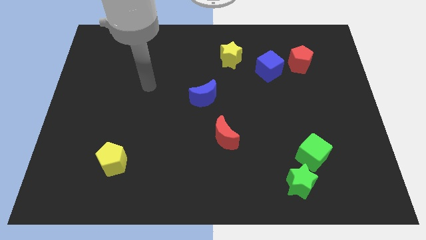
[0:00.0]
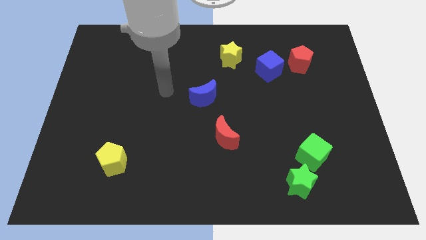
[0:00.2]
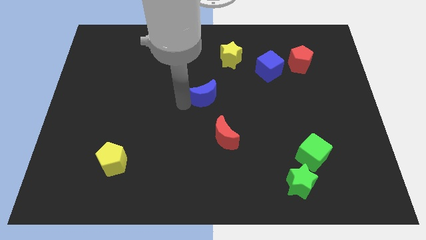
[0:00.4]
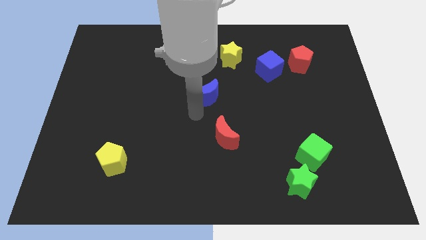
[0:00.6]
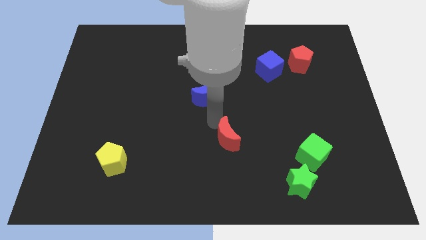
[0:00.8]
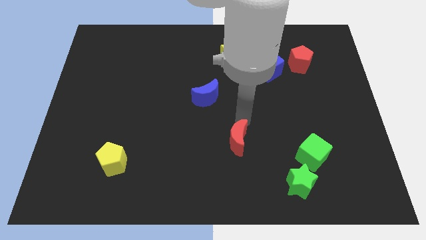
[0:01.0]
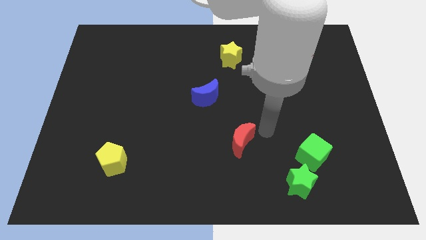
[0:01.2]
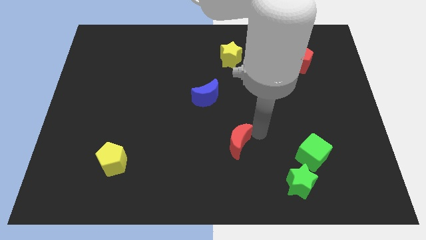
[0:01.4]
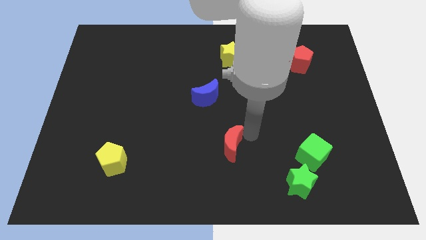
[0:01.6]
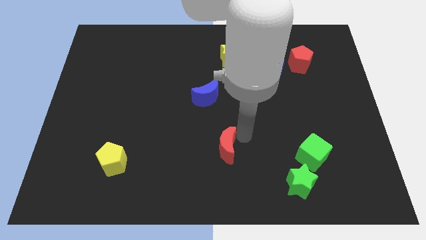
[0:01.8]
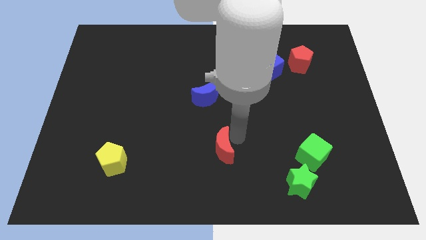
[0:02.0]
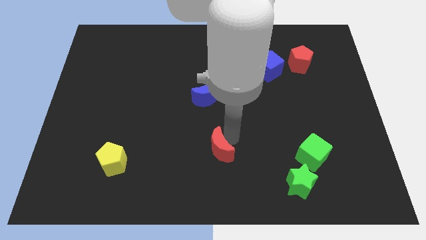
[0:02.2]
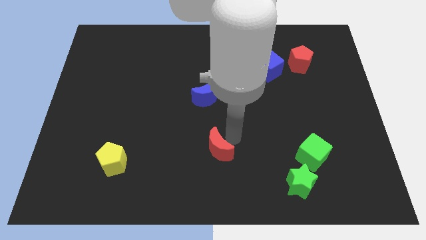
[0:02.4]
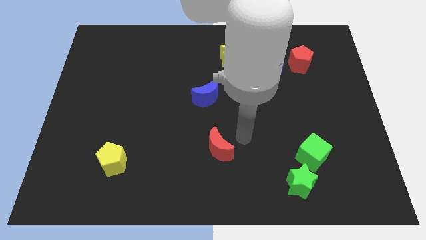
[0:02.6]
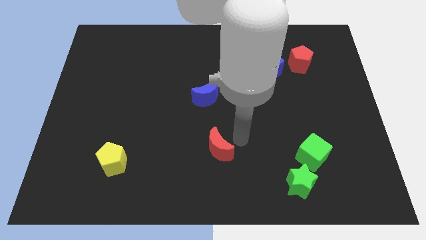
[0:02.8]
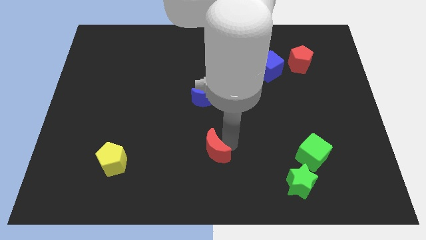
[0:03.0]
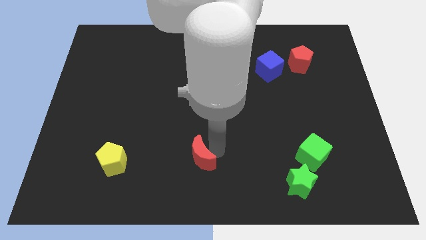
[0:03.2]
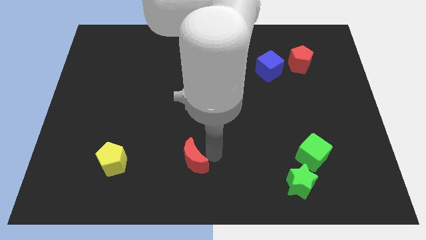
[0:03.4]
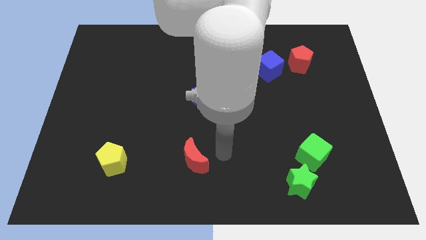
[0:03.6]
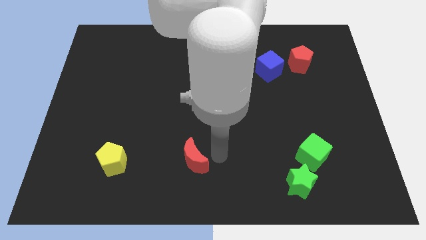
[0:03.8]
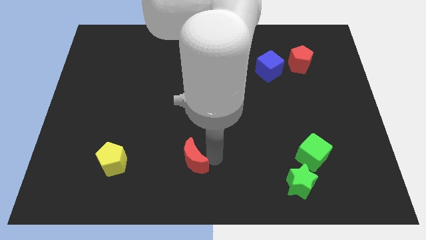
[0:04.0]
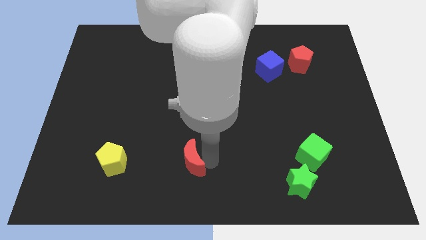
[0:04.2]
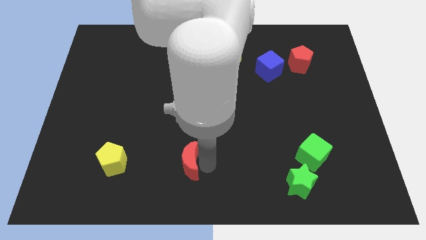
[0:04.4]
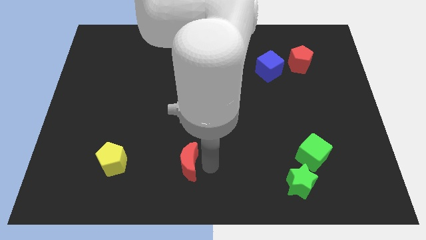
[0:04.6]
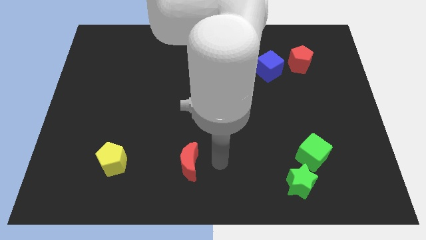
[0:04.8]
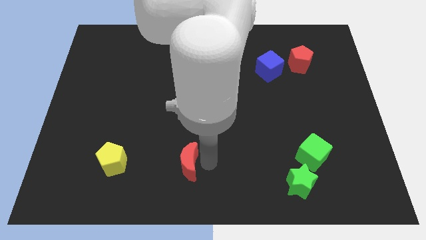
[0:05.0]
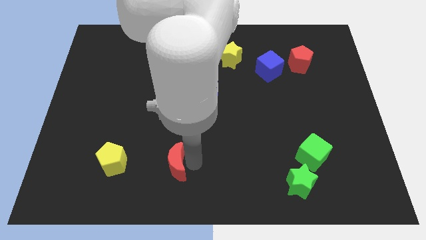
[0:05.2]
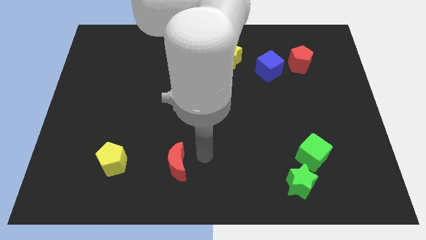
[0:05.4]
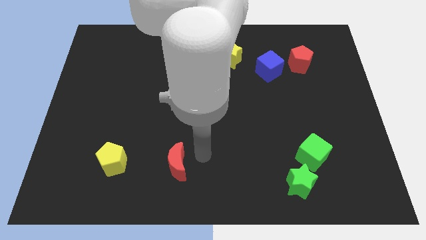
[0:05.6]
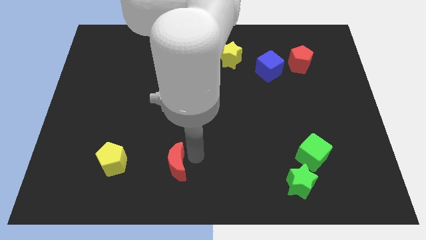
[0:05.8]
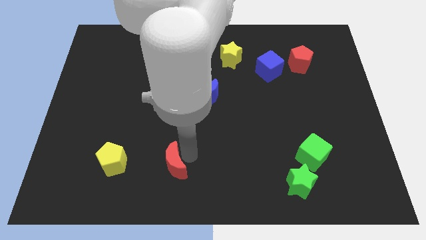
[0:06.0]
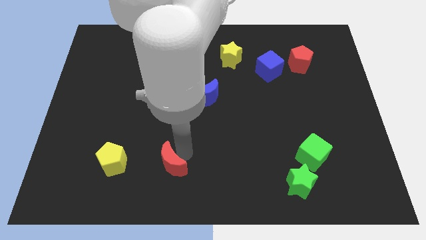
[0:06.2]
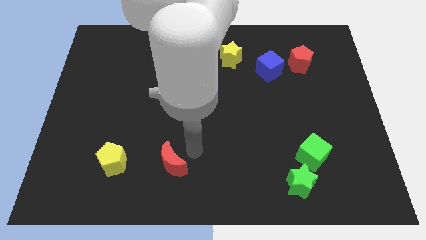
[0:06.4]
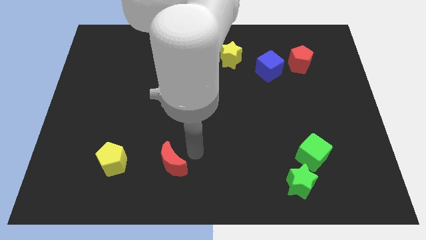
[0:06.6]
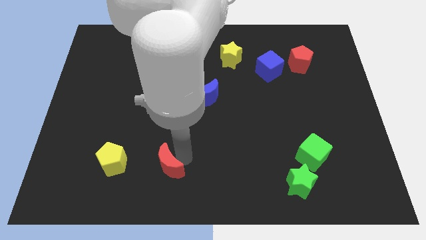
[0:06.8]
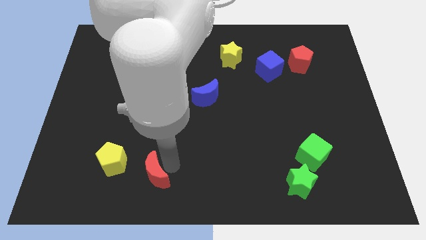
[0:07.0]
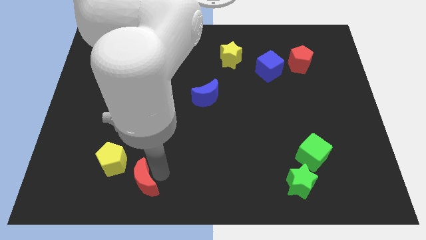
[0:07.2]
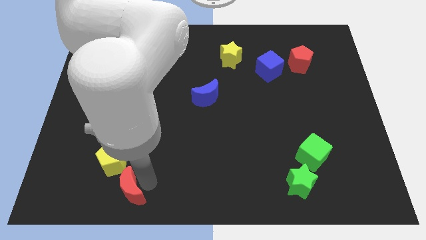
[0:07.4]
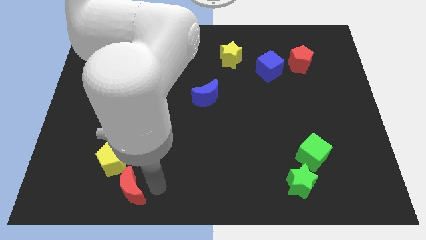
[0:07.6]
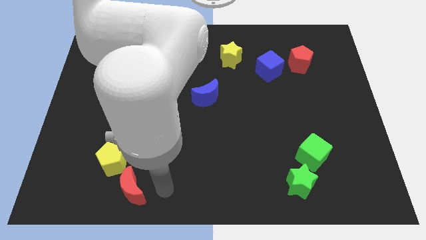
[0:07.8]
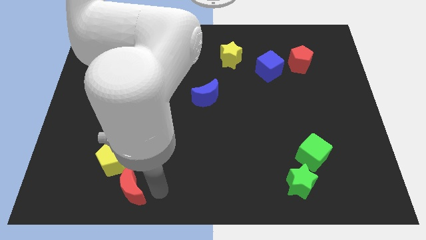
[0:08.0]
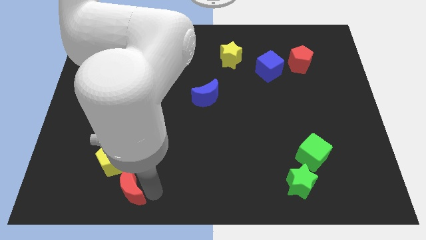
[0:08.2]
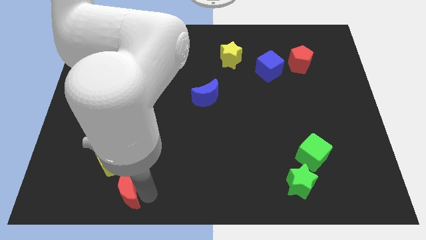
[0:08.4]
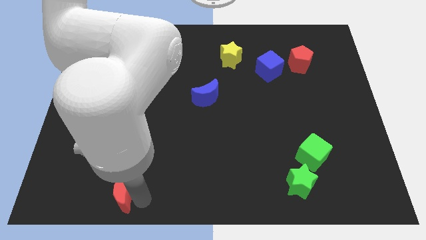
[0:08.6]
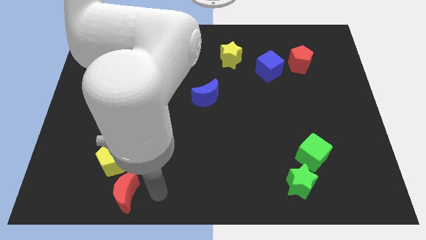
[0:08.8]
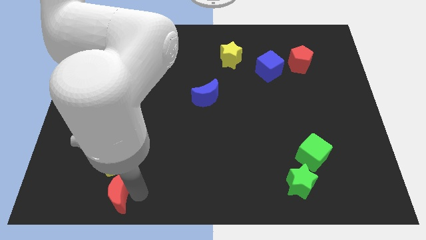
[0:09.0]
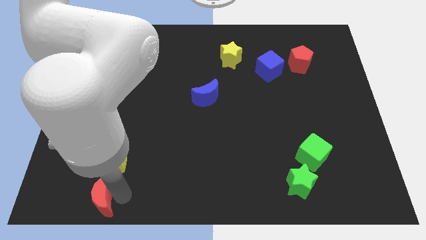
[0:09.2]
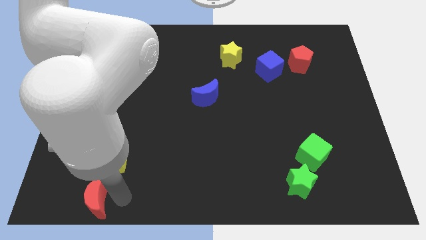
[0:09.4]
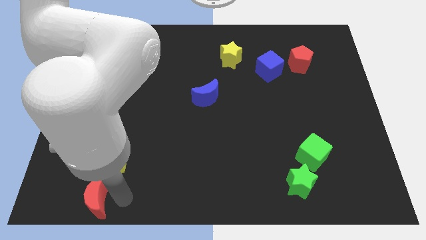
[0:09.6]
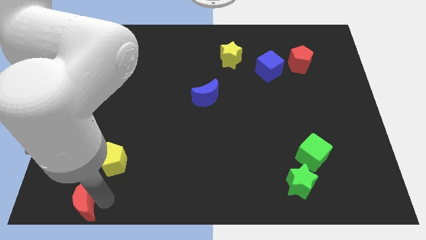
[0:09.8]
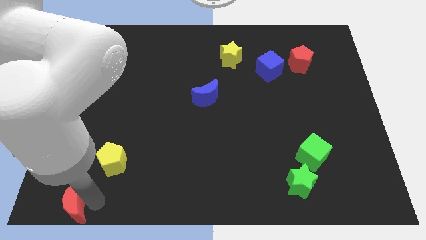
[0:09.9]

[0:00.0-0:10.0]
put the red moon to the bottom left of the board

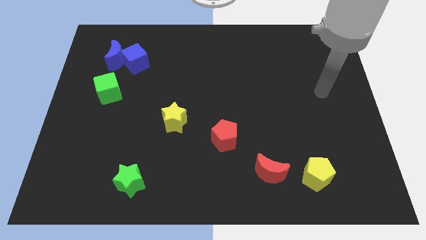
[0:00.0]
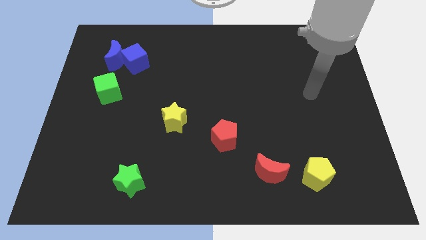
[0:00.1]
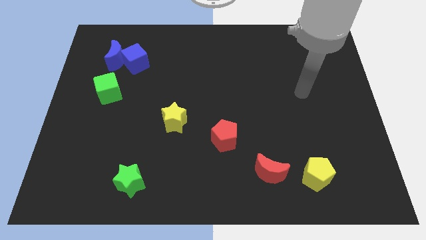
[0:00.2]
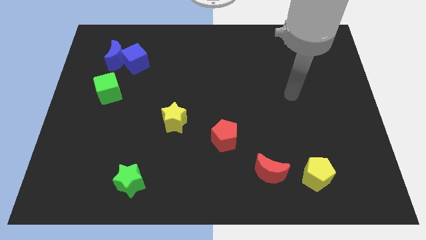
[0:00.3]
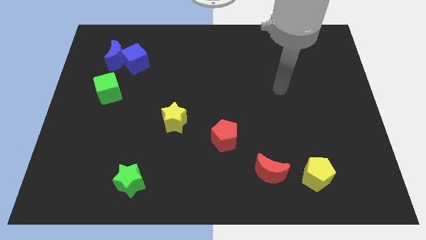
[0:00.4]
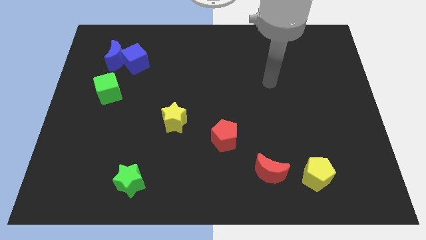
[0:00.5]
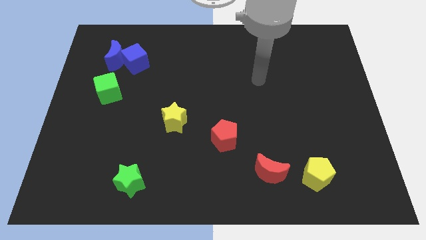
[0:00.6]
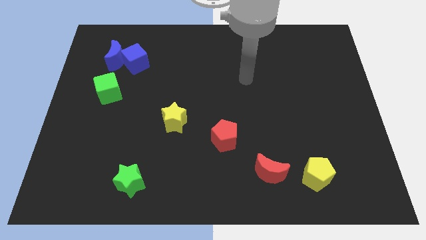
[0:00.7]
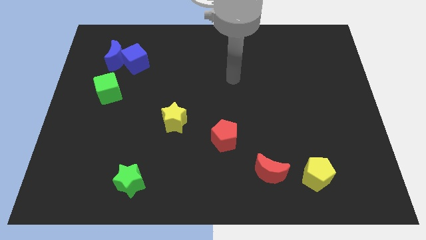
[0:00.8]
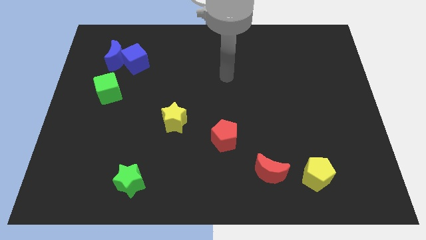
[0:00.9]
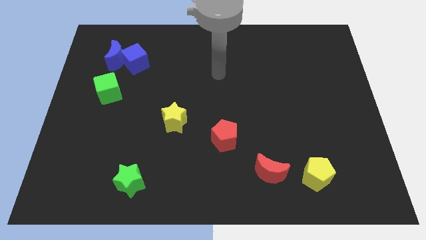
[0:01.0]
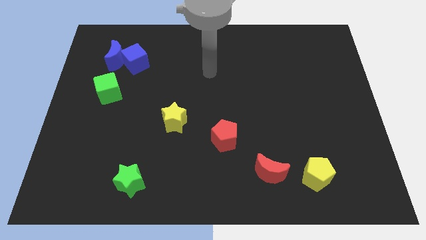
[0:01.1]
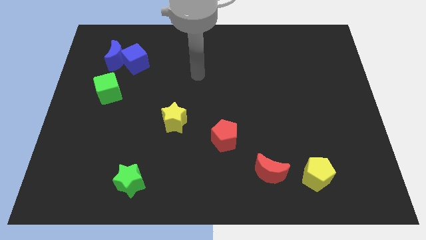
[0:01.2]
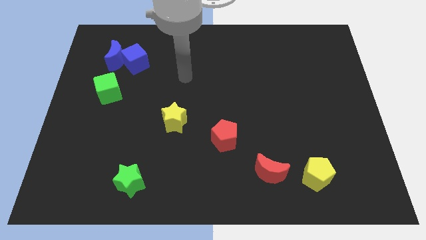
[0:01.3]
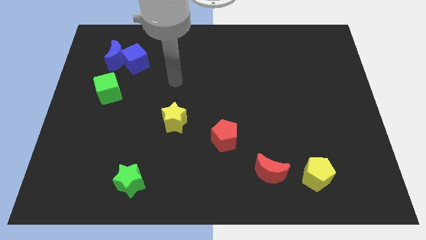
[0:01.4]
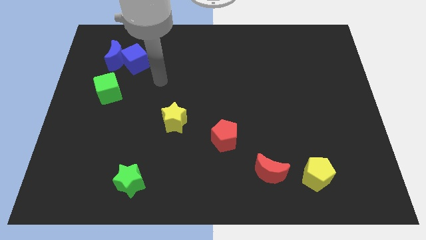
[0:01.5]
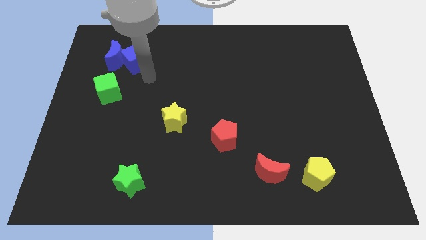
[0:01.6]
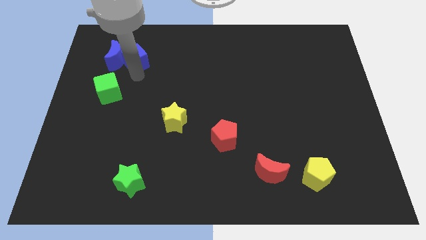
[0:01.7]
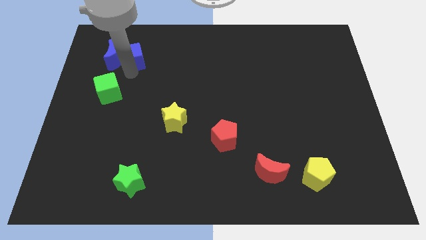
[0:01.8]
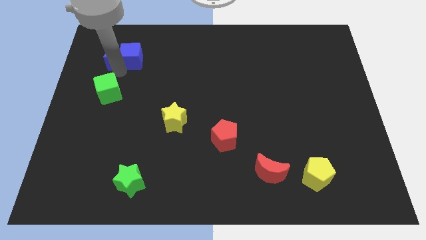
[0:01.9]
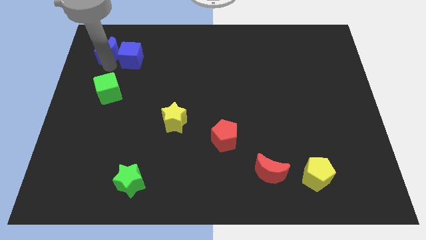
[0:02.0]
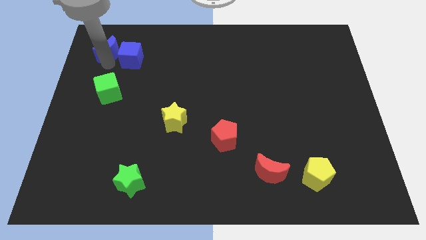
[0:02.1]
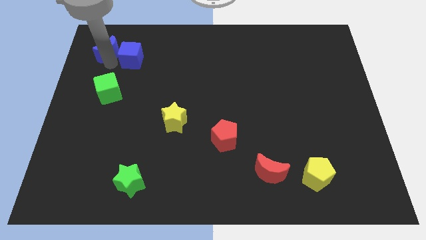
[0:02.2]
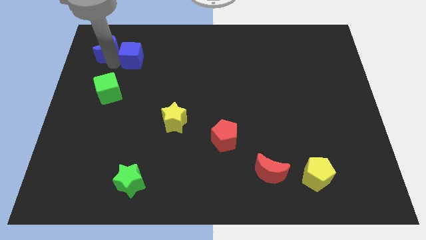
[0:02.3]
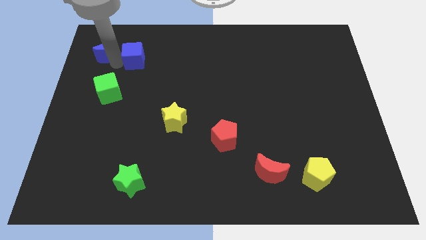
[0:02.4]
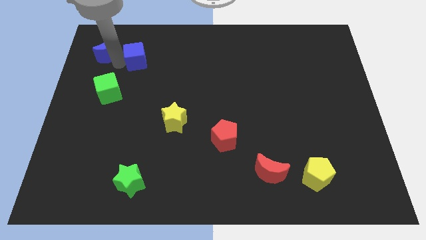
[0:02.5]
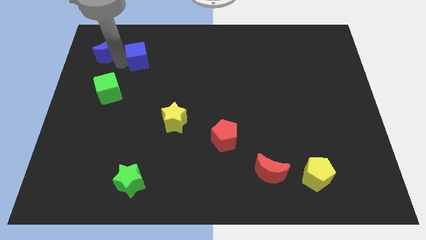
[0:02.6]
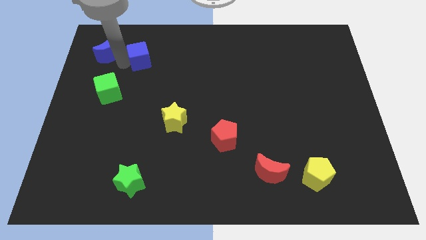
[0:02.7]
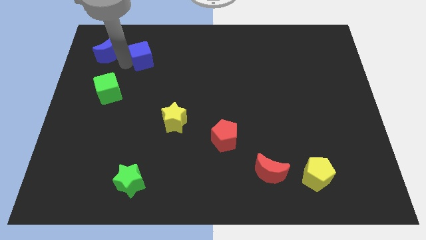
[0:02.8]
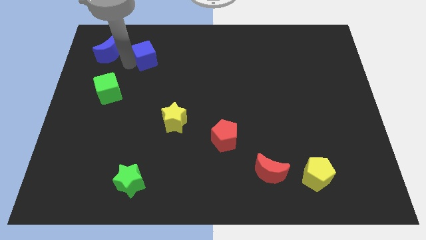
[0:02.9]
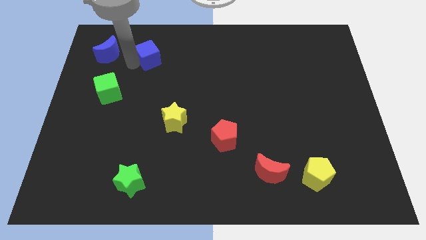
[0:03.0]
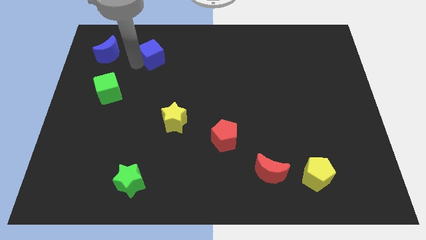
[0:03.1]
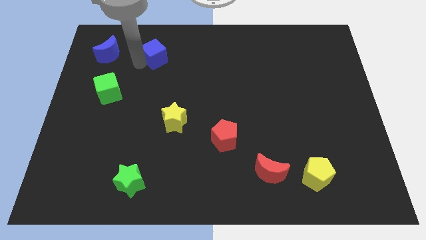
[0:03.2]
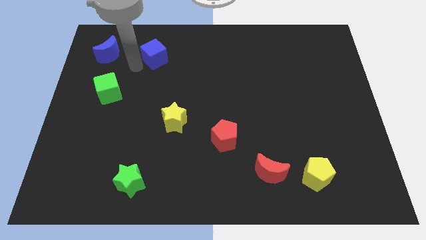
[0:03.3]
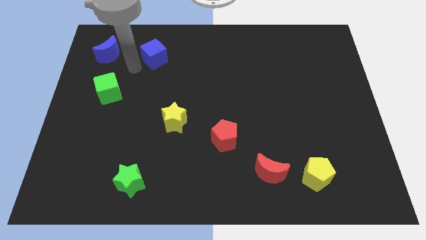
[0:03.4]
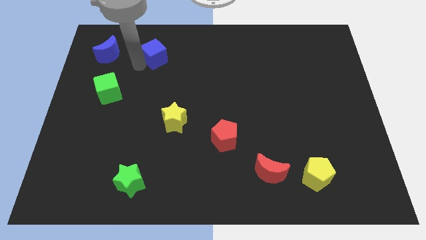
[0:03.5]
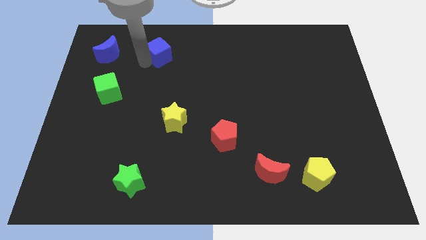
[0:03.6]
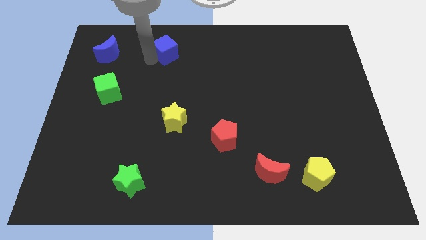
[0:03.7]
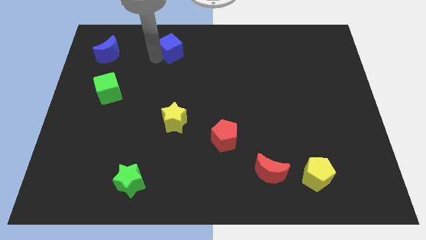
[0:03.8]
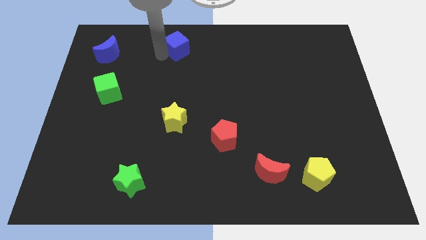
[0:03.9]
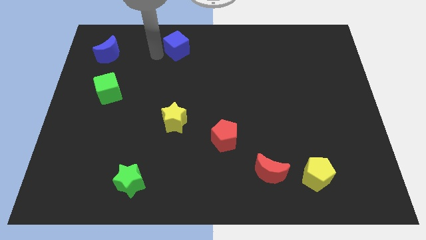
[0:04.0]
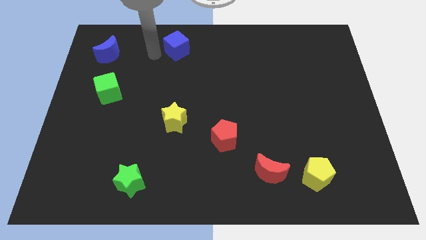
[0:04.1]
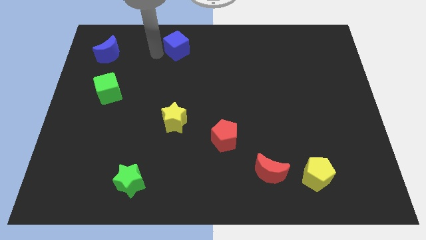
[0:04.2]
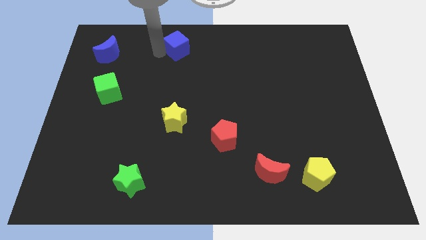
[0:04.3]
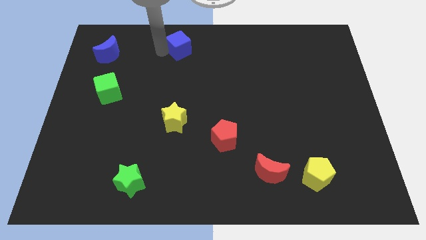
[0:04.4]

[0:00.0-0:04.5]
push the blue cube to the top
